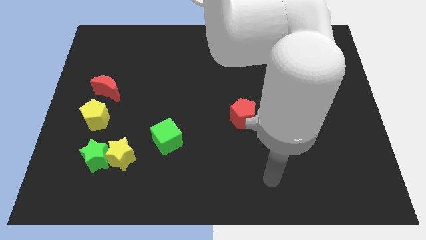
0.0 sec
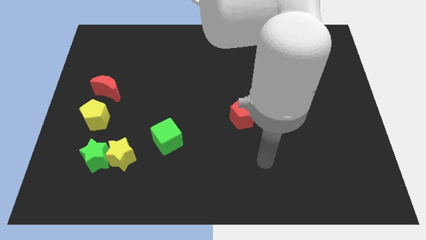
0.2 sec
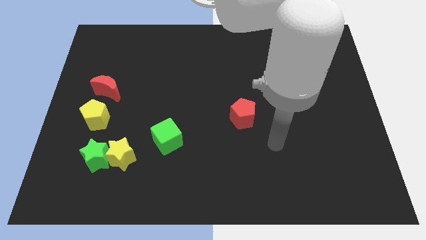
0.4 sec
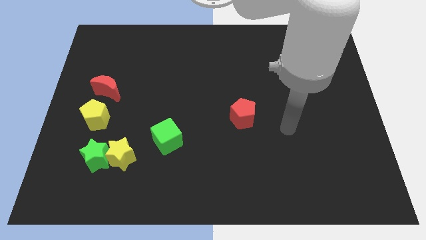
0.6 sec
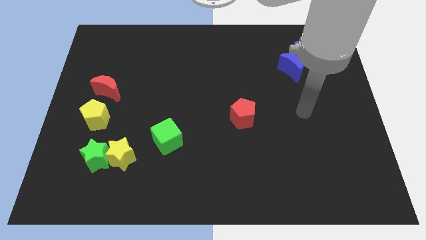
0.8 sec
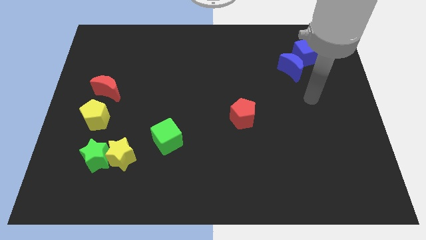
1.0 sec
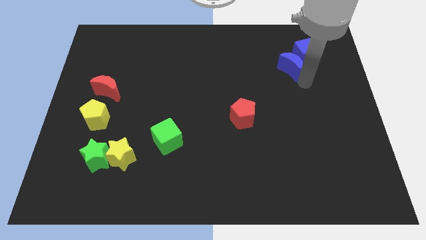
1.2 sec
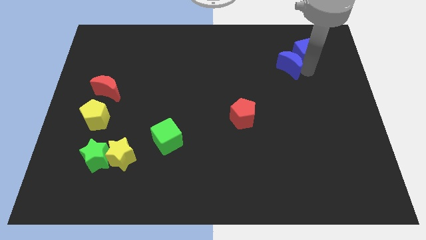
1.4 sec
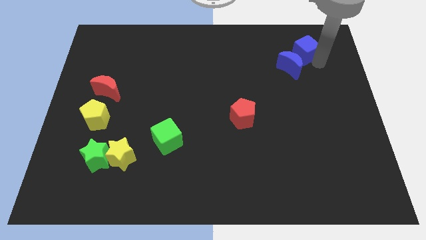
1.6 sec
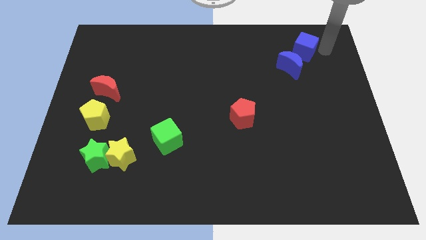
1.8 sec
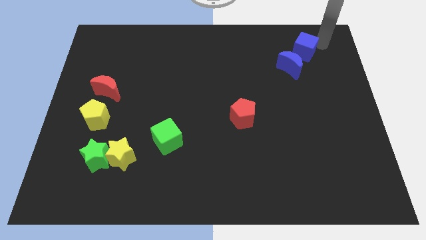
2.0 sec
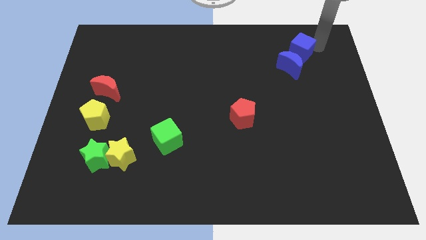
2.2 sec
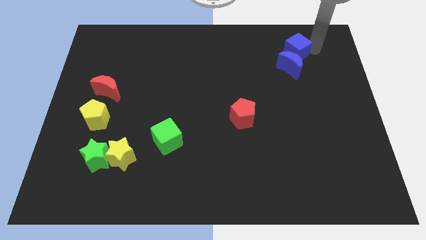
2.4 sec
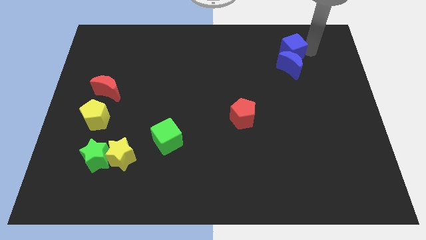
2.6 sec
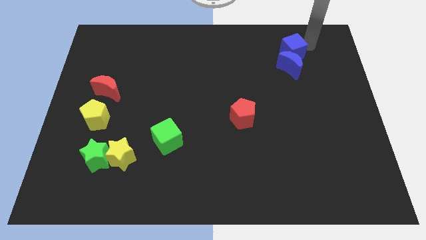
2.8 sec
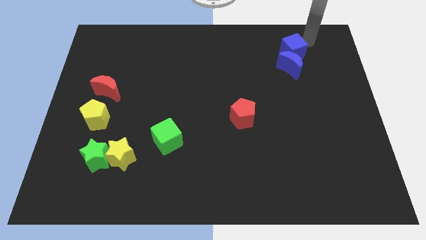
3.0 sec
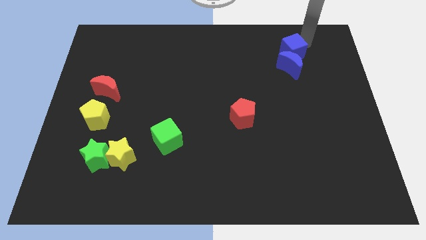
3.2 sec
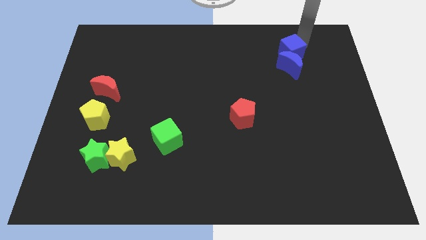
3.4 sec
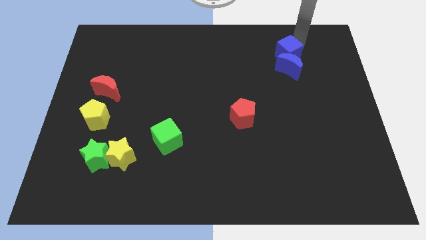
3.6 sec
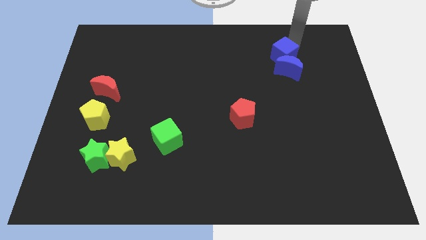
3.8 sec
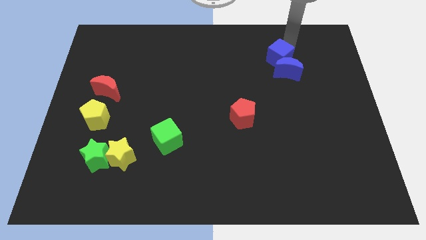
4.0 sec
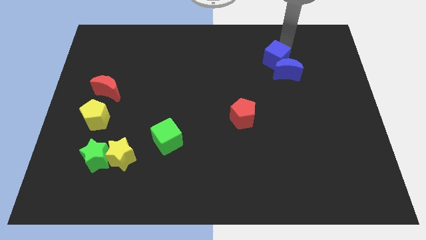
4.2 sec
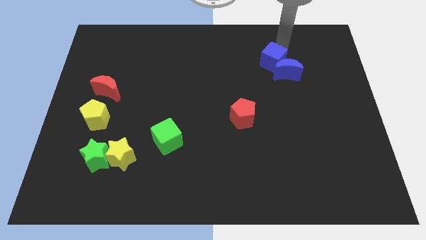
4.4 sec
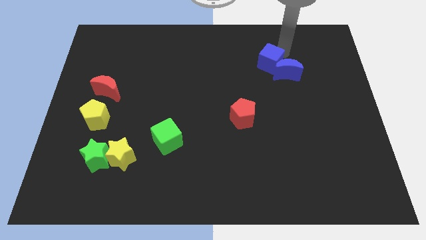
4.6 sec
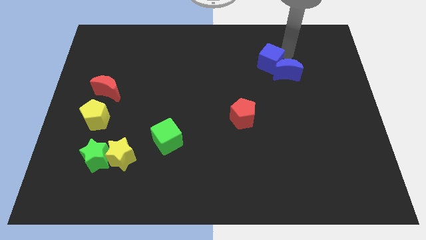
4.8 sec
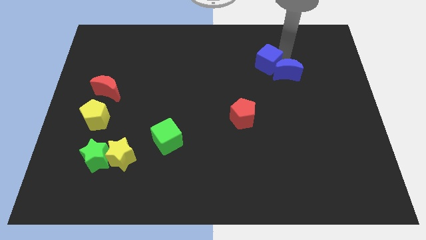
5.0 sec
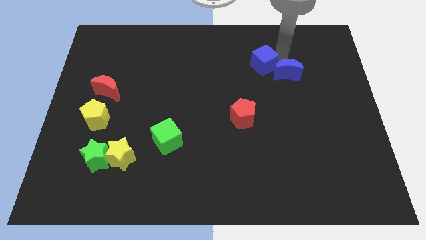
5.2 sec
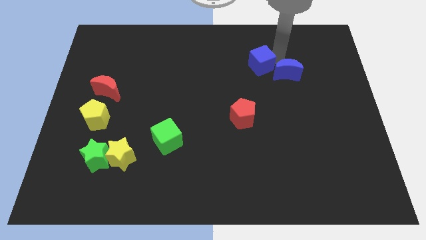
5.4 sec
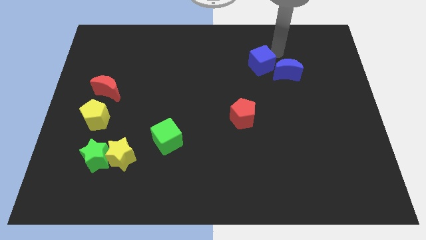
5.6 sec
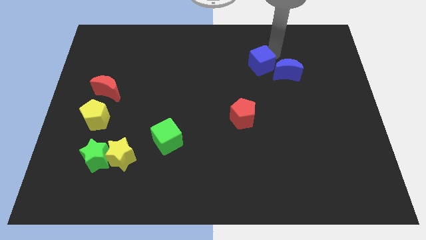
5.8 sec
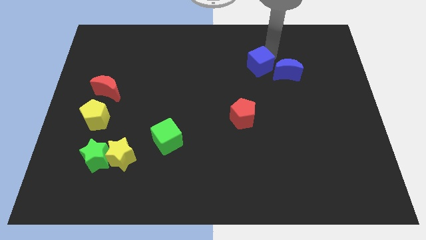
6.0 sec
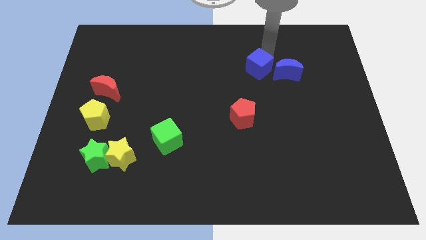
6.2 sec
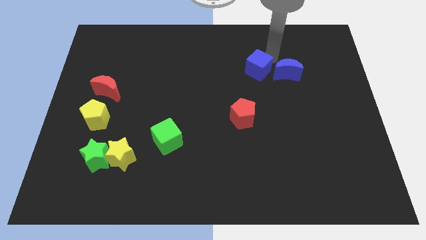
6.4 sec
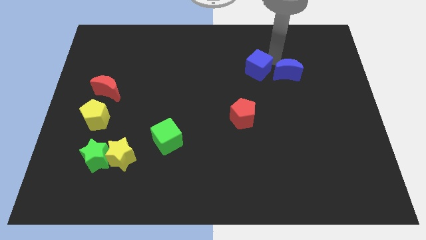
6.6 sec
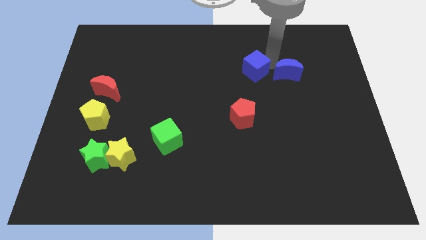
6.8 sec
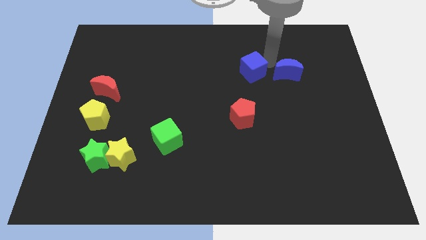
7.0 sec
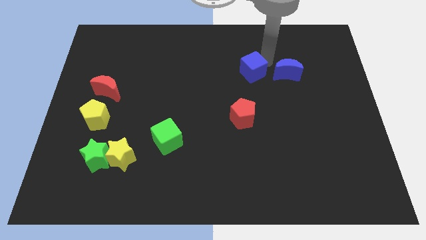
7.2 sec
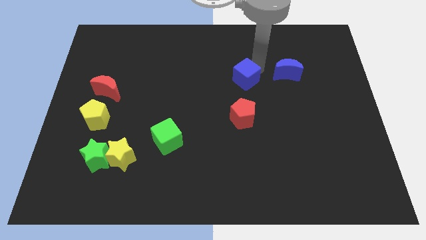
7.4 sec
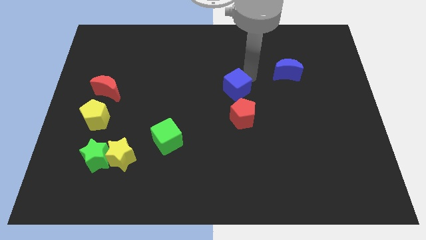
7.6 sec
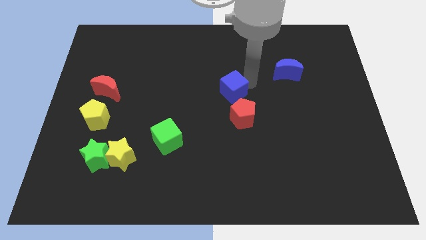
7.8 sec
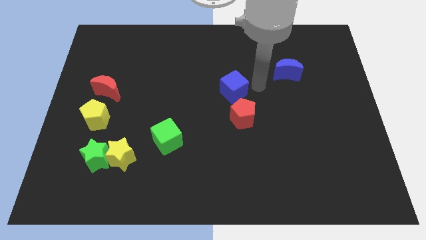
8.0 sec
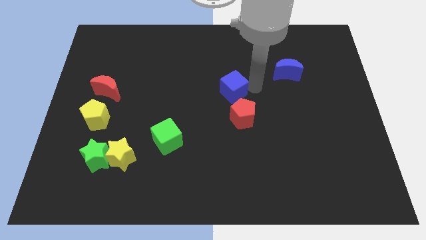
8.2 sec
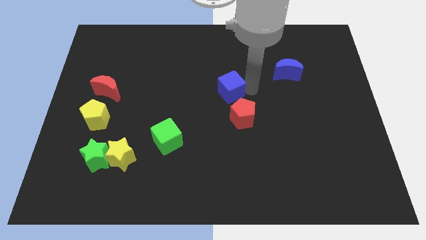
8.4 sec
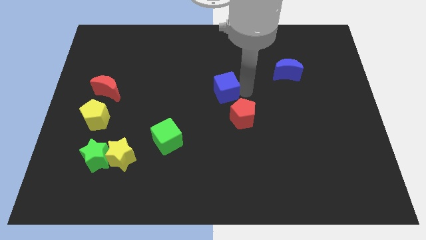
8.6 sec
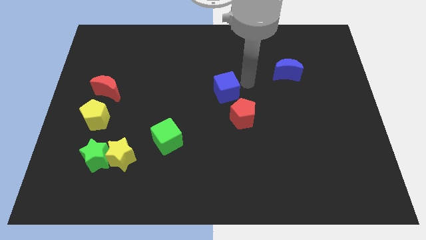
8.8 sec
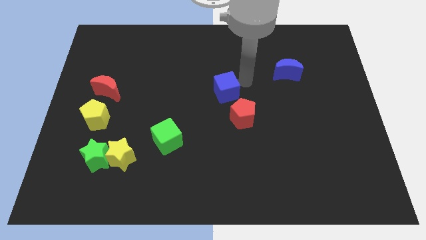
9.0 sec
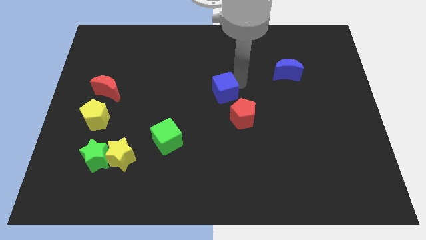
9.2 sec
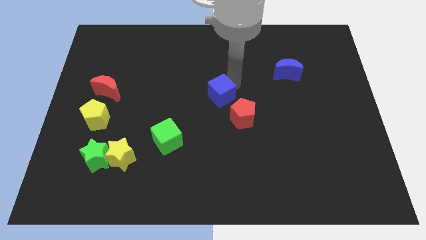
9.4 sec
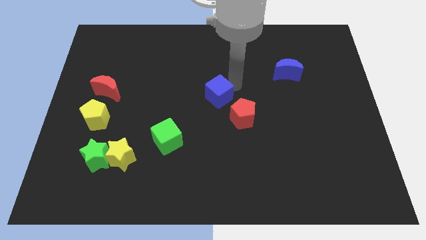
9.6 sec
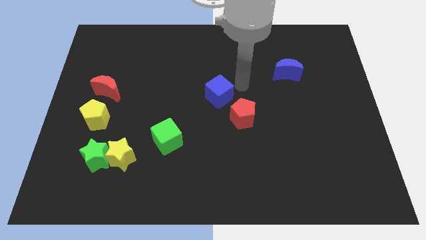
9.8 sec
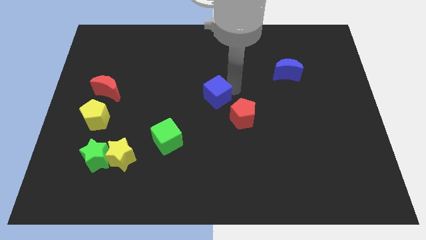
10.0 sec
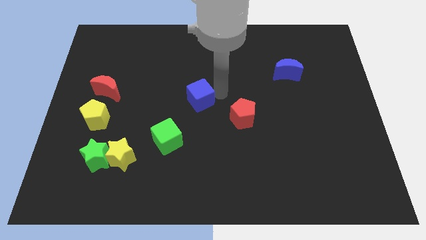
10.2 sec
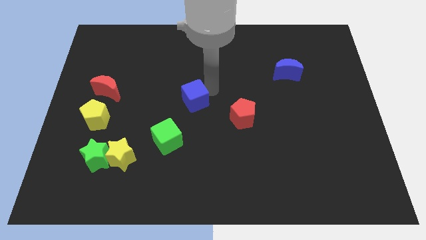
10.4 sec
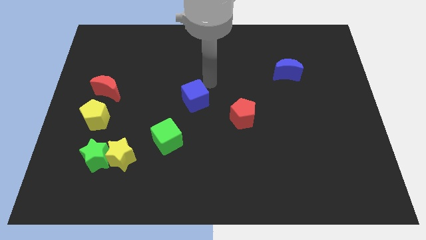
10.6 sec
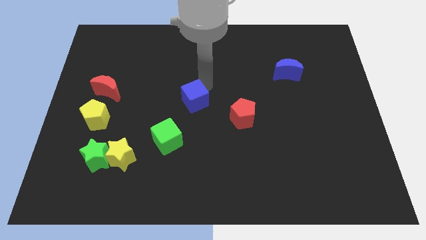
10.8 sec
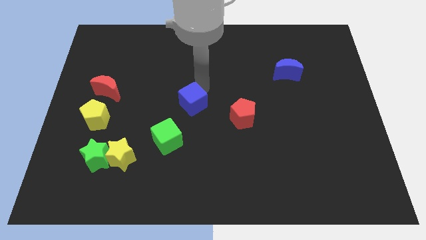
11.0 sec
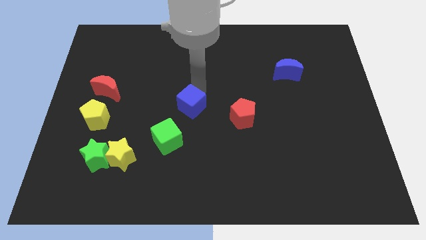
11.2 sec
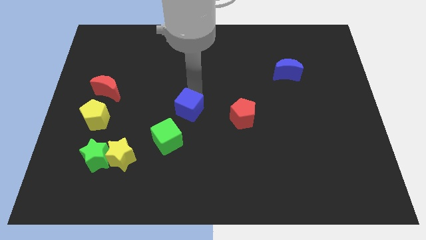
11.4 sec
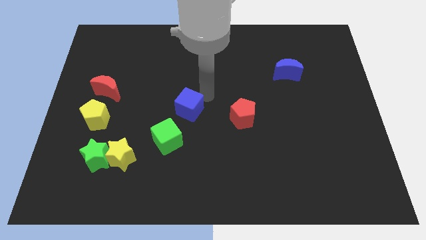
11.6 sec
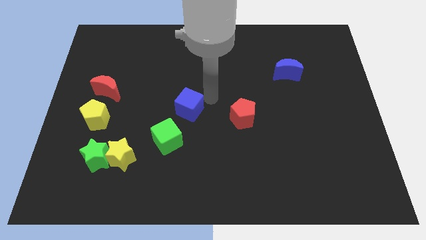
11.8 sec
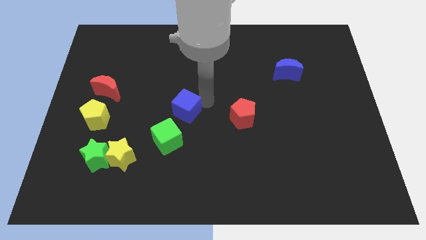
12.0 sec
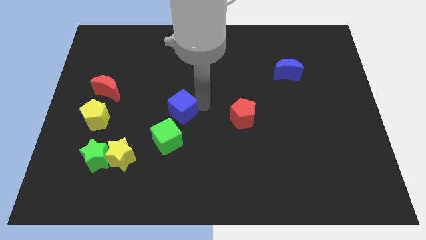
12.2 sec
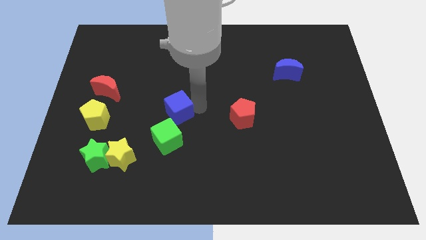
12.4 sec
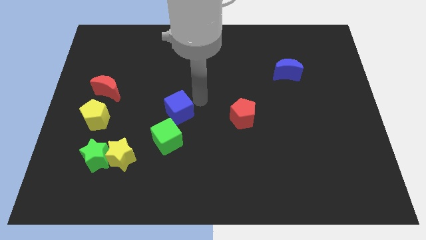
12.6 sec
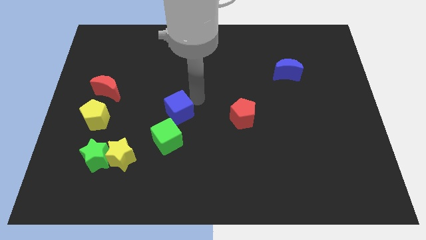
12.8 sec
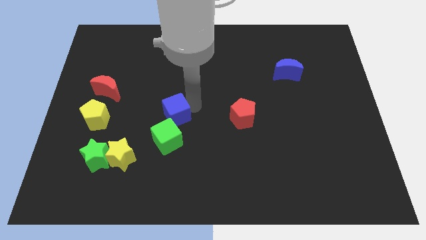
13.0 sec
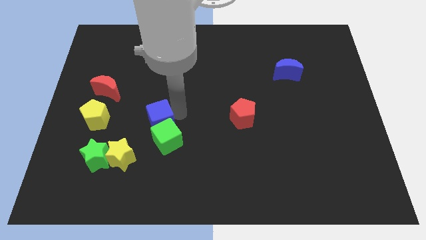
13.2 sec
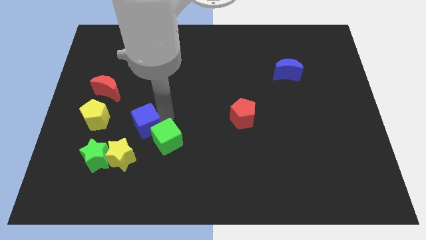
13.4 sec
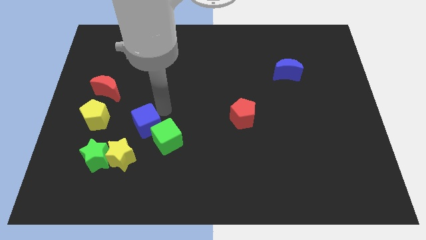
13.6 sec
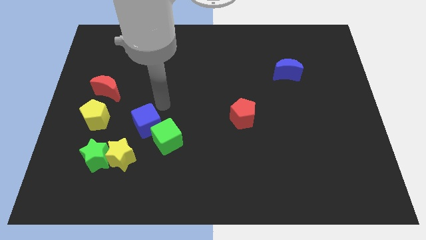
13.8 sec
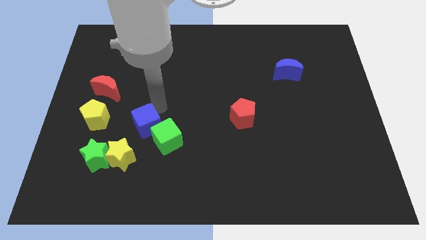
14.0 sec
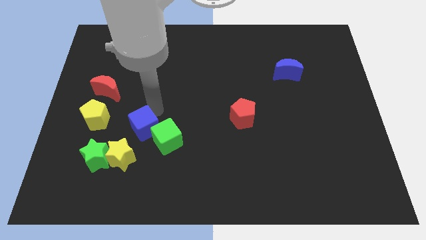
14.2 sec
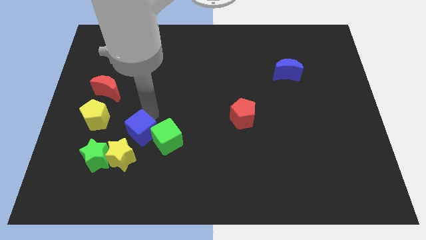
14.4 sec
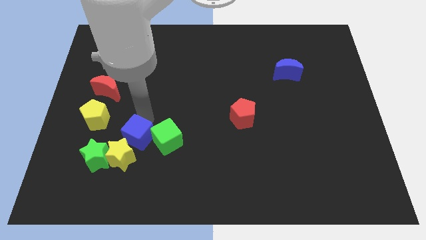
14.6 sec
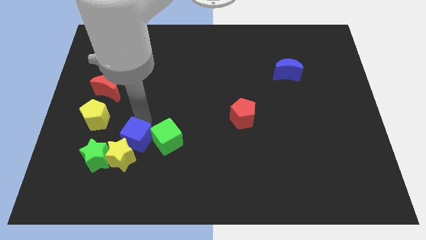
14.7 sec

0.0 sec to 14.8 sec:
move the blue cube next to the yellow star
